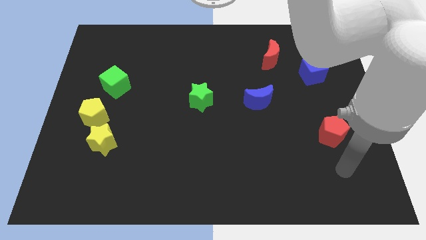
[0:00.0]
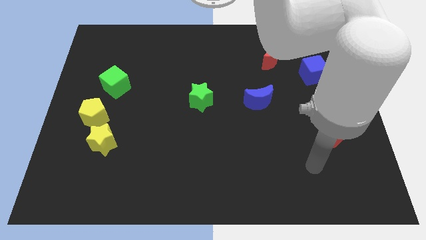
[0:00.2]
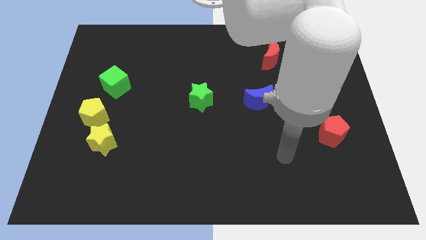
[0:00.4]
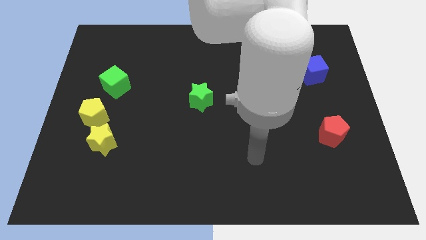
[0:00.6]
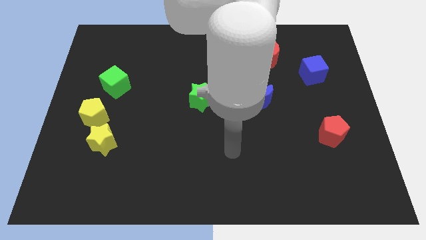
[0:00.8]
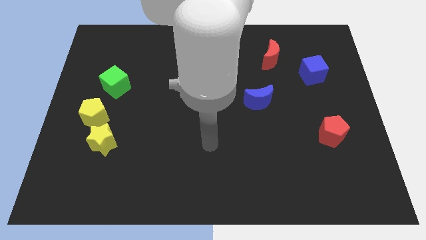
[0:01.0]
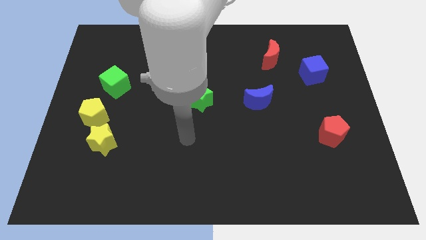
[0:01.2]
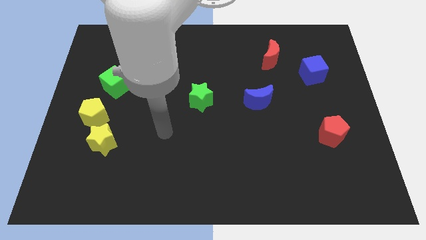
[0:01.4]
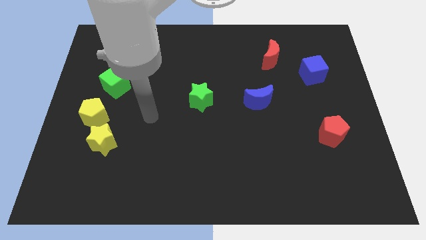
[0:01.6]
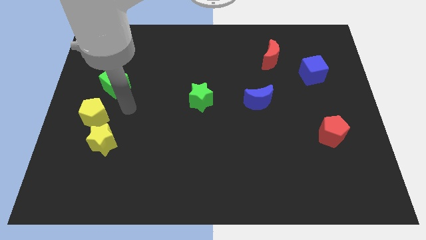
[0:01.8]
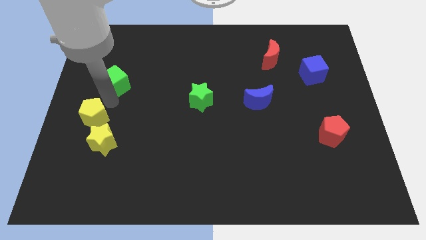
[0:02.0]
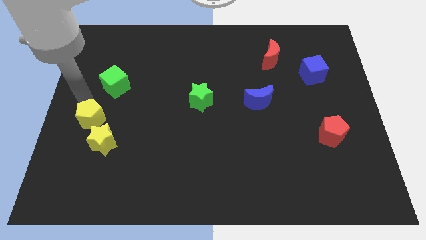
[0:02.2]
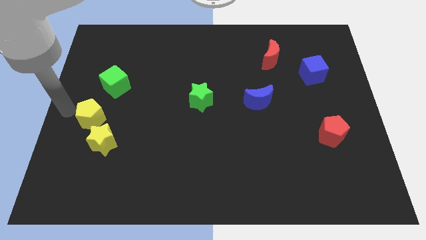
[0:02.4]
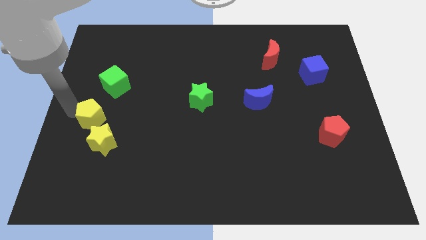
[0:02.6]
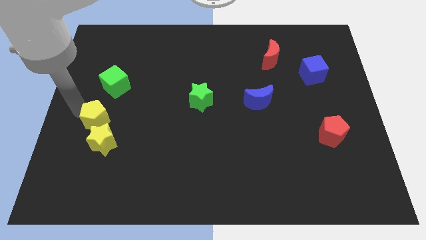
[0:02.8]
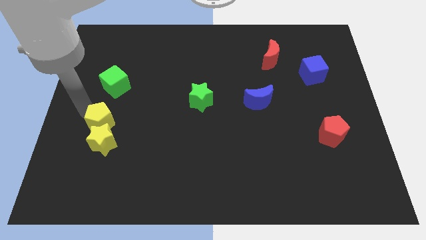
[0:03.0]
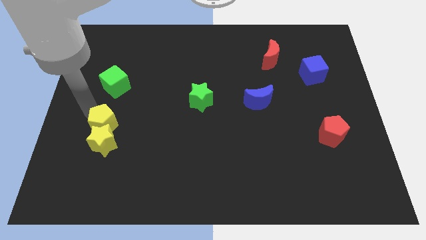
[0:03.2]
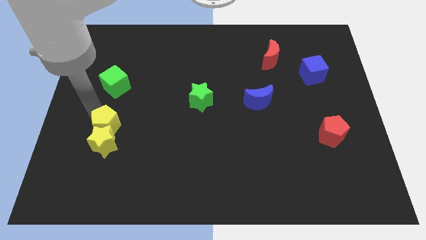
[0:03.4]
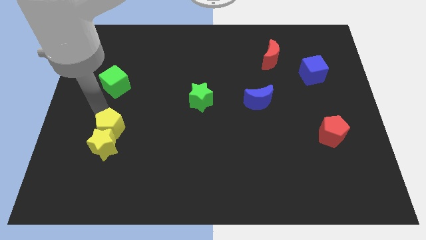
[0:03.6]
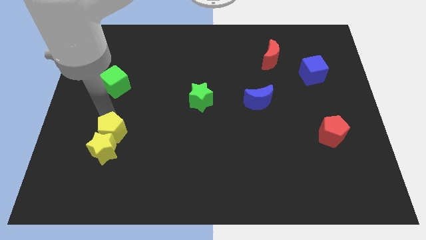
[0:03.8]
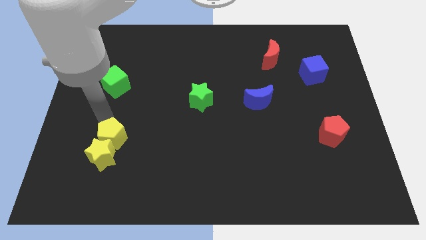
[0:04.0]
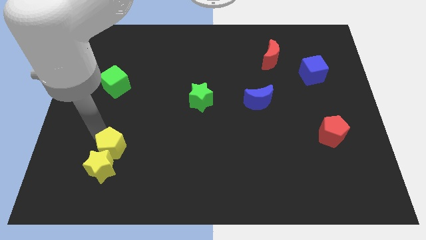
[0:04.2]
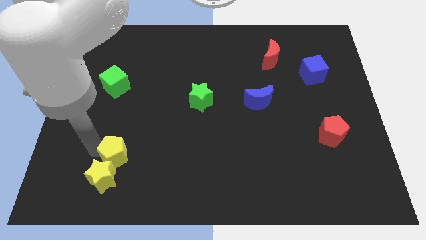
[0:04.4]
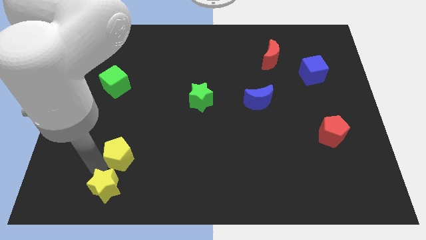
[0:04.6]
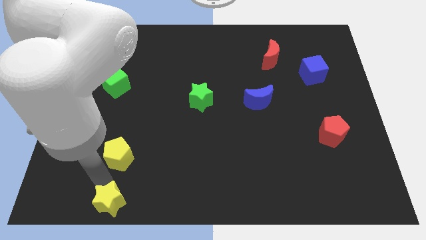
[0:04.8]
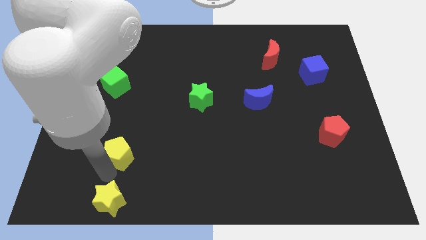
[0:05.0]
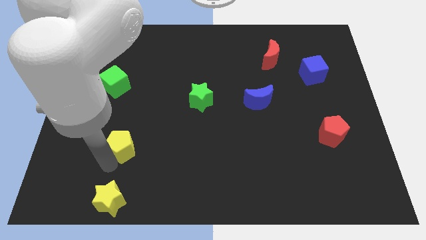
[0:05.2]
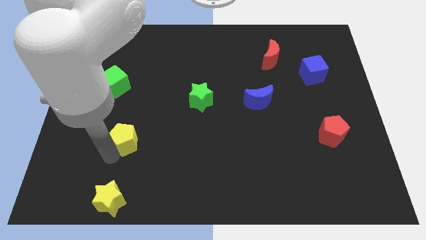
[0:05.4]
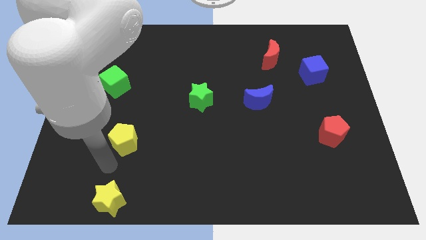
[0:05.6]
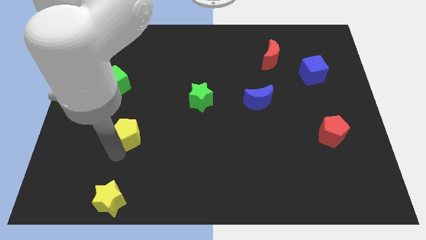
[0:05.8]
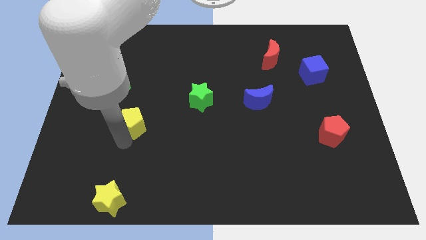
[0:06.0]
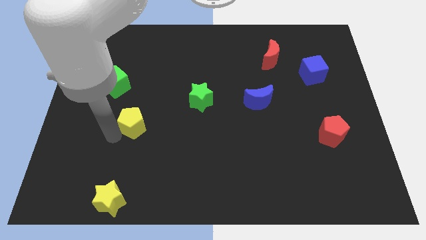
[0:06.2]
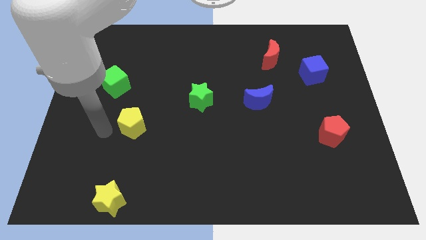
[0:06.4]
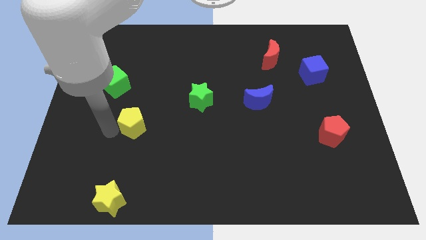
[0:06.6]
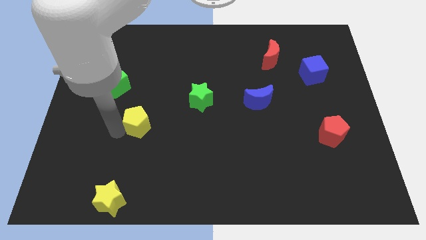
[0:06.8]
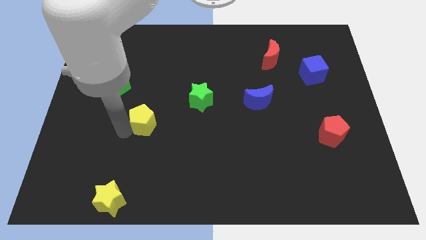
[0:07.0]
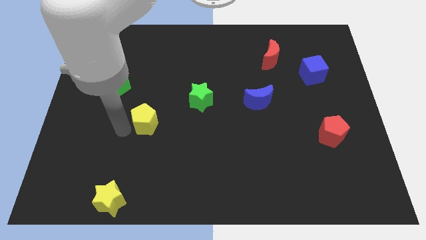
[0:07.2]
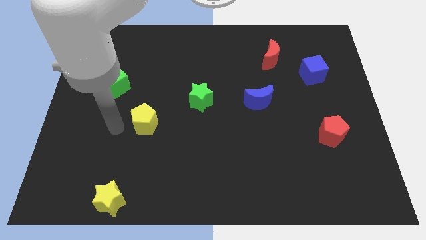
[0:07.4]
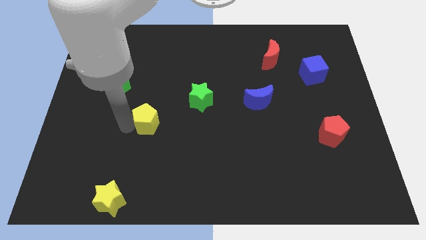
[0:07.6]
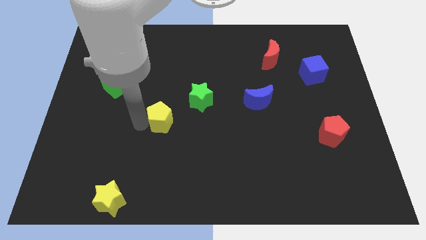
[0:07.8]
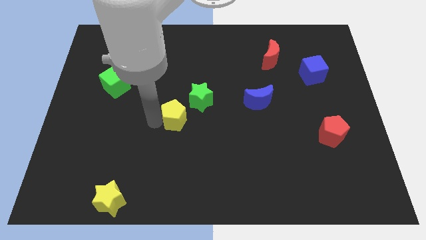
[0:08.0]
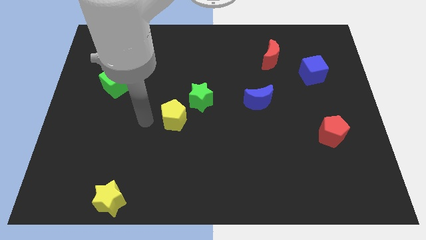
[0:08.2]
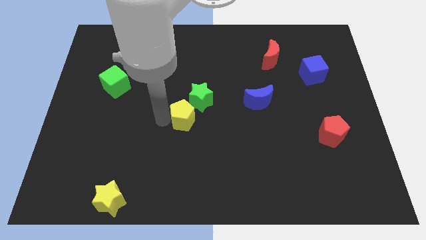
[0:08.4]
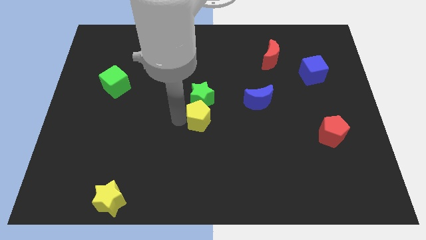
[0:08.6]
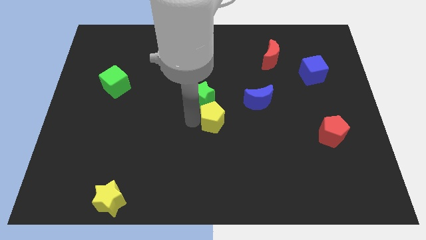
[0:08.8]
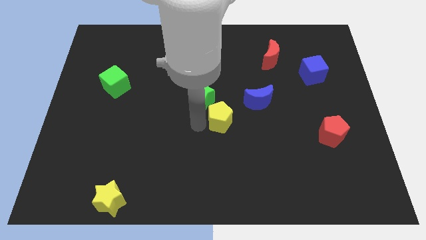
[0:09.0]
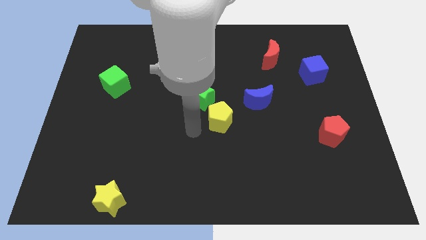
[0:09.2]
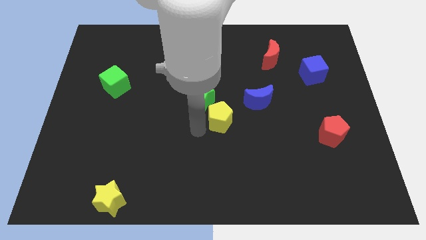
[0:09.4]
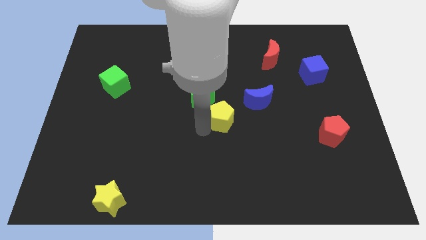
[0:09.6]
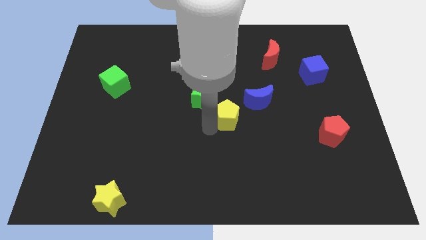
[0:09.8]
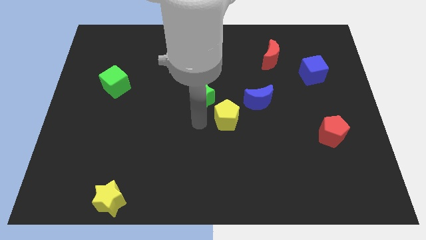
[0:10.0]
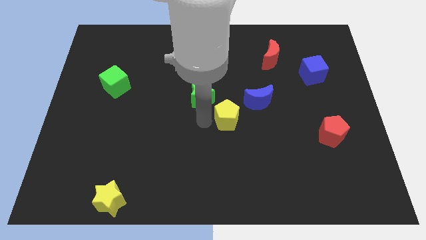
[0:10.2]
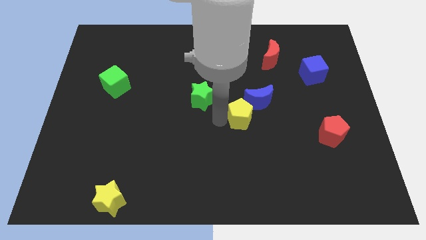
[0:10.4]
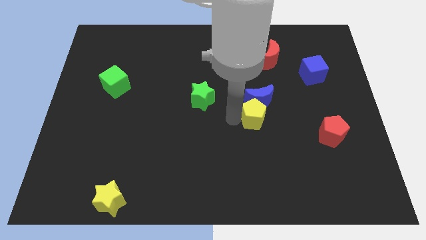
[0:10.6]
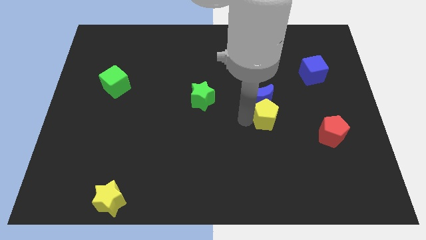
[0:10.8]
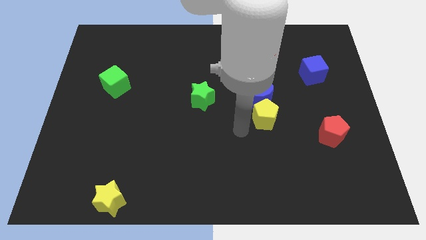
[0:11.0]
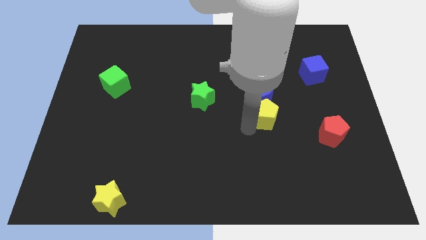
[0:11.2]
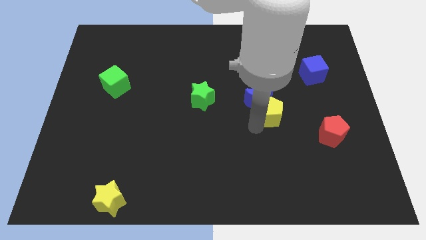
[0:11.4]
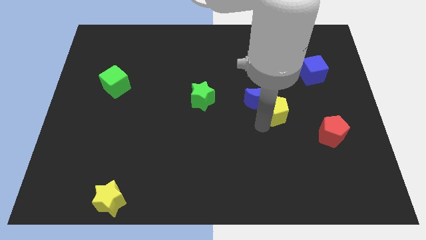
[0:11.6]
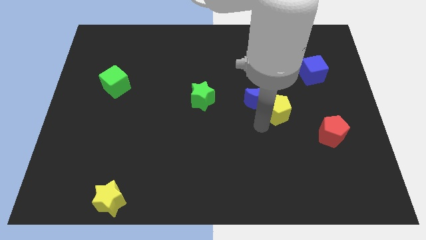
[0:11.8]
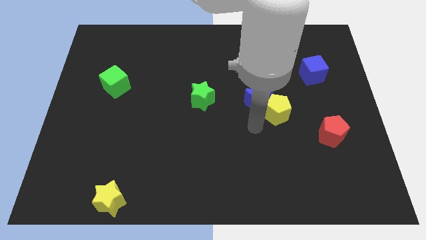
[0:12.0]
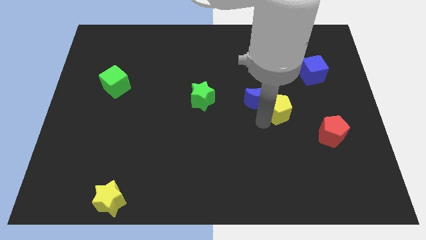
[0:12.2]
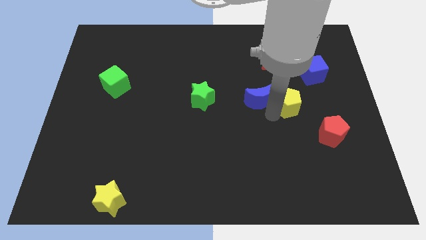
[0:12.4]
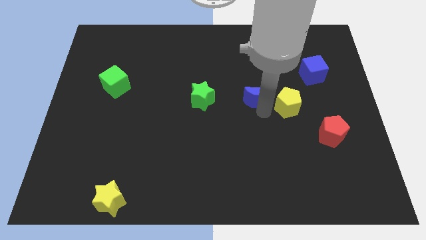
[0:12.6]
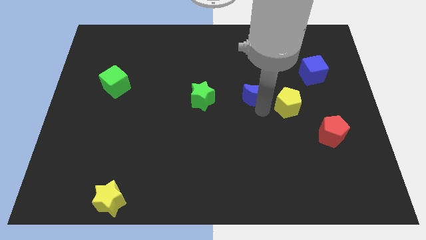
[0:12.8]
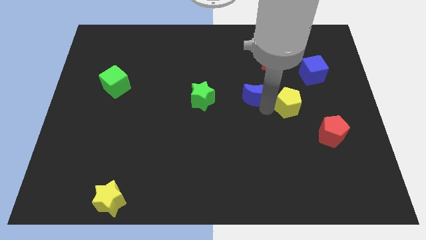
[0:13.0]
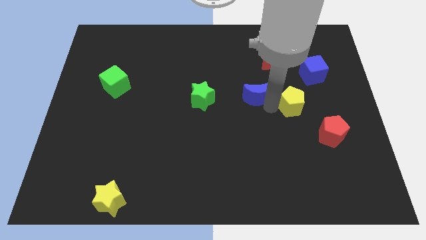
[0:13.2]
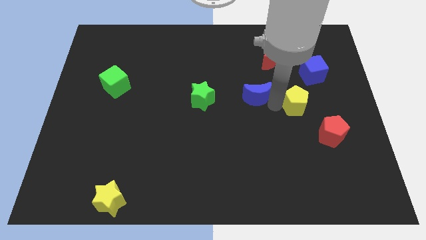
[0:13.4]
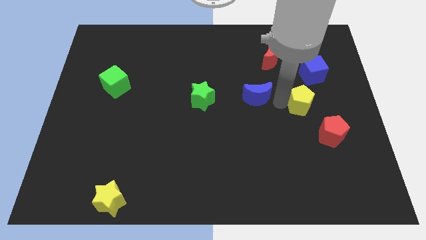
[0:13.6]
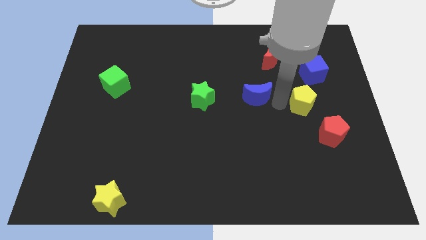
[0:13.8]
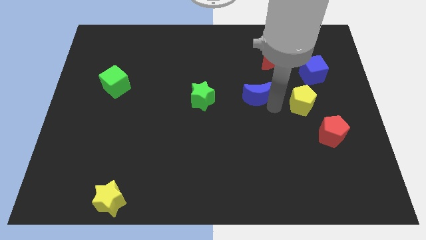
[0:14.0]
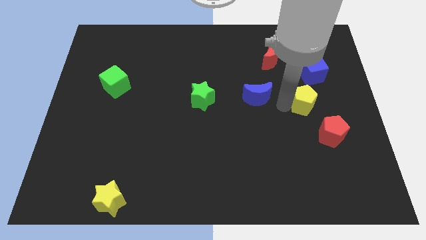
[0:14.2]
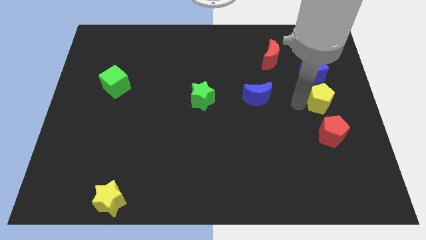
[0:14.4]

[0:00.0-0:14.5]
push the yellow pentagon to the center right
